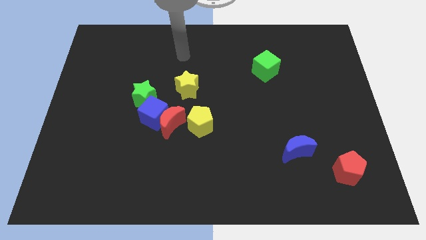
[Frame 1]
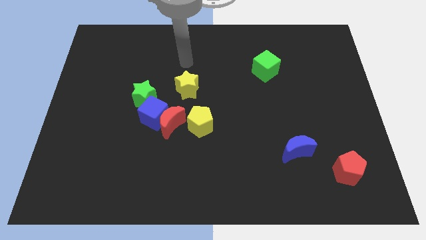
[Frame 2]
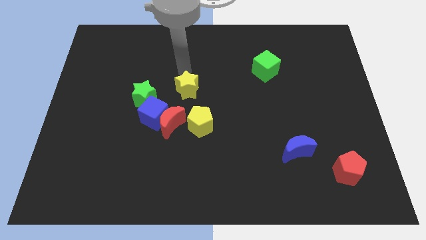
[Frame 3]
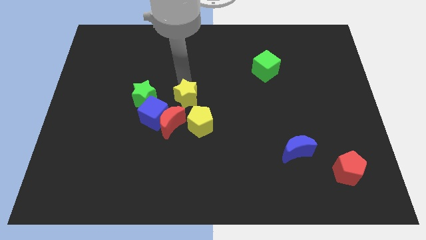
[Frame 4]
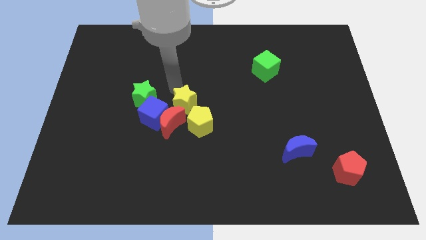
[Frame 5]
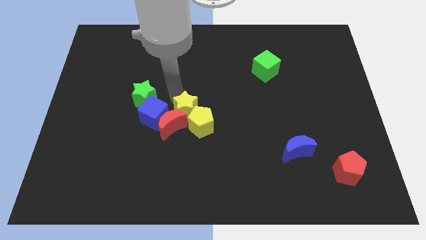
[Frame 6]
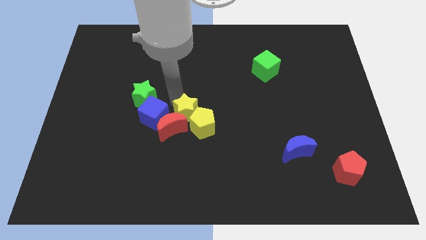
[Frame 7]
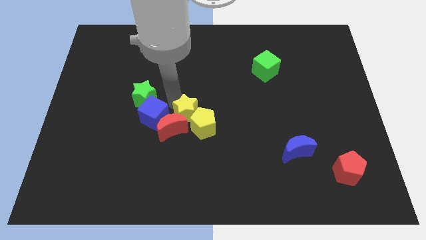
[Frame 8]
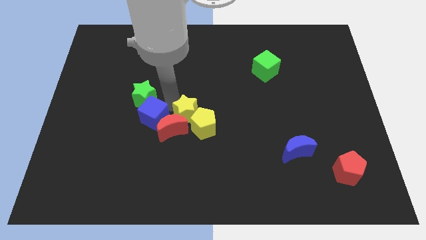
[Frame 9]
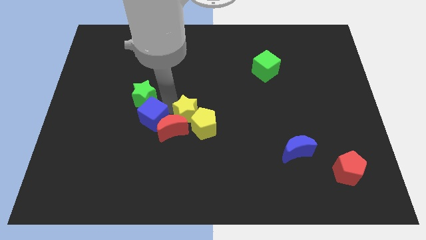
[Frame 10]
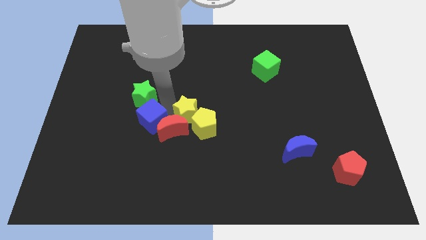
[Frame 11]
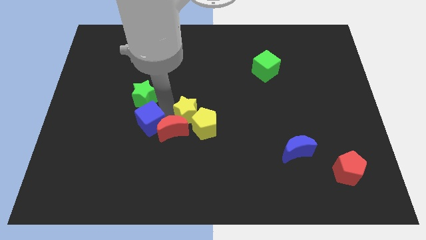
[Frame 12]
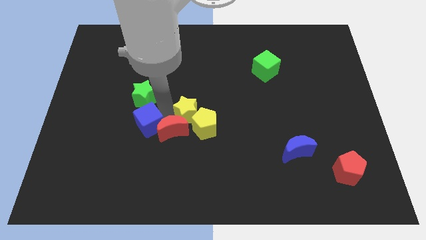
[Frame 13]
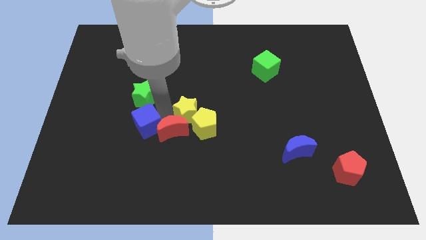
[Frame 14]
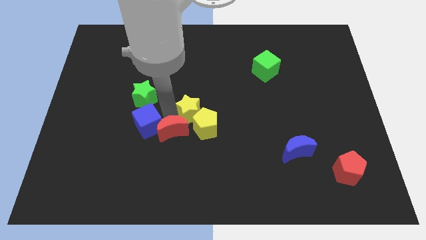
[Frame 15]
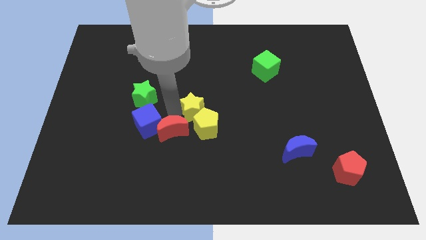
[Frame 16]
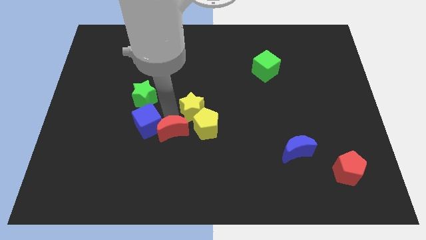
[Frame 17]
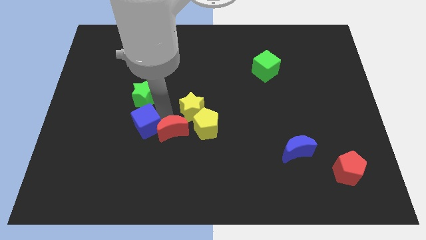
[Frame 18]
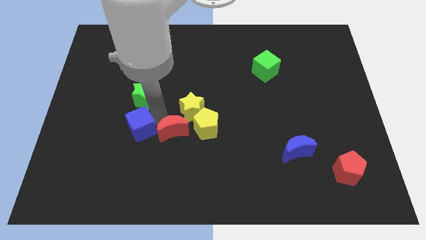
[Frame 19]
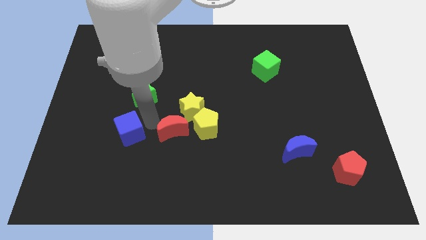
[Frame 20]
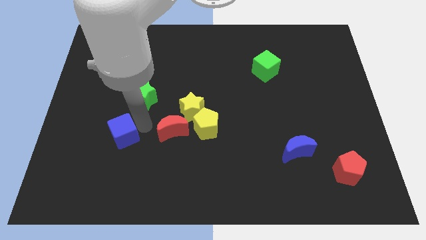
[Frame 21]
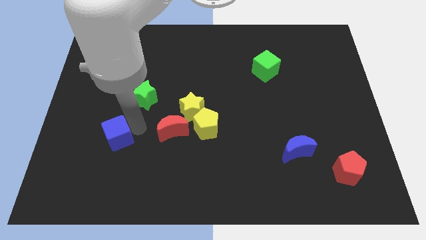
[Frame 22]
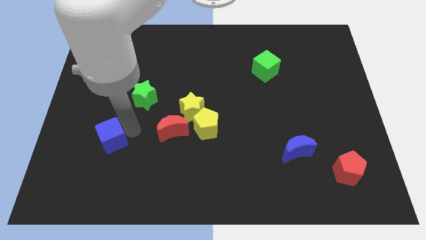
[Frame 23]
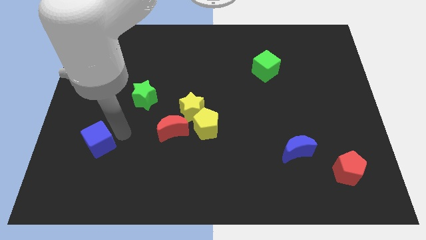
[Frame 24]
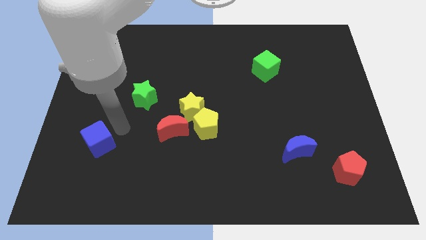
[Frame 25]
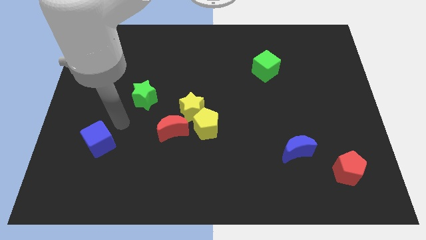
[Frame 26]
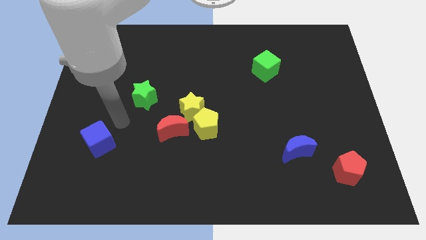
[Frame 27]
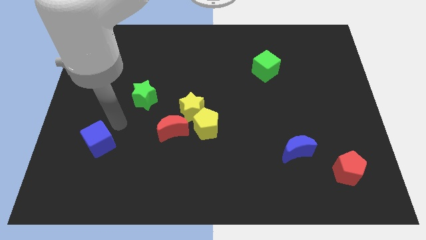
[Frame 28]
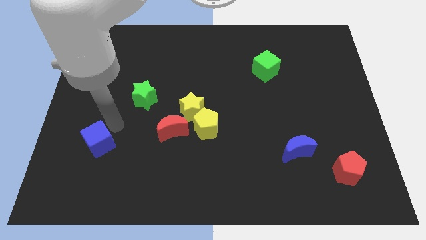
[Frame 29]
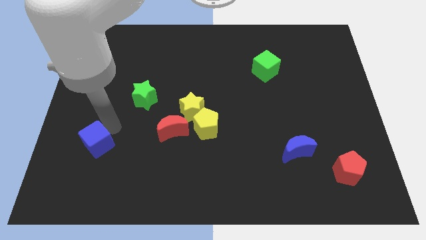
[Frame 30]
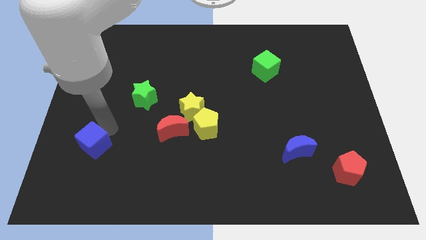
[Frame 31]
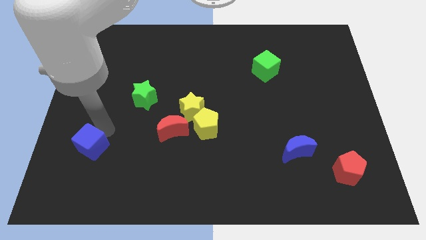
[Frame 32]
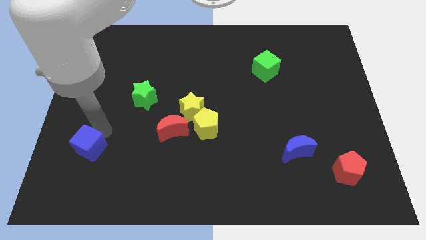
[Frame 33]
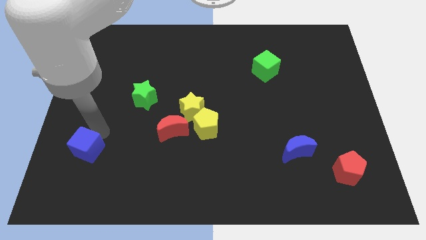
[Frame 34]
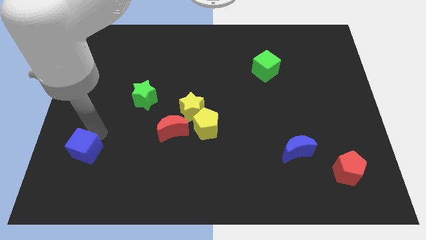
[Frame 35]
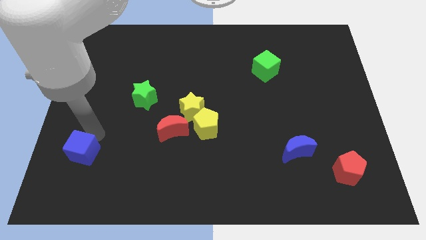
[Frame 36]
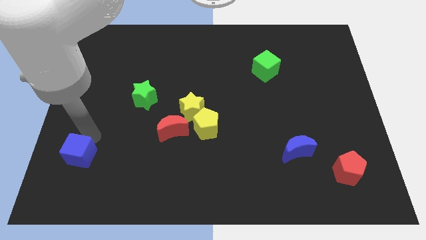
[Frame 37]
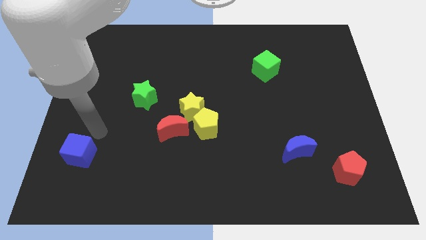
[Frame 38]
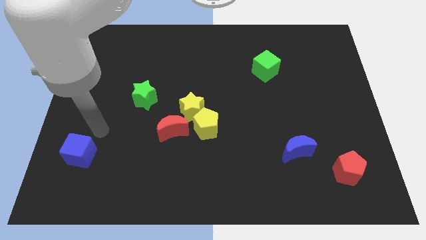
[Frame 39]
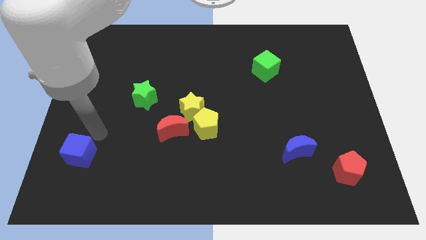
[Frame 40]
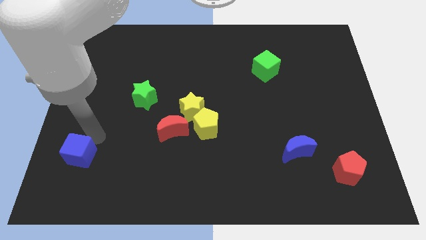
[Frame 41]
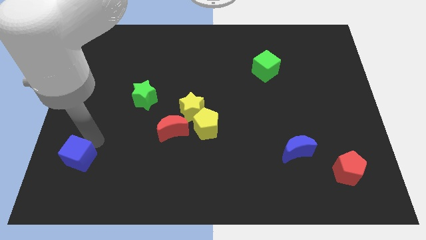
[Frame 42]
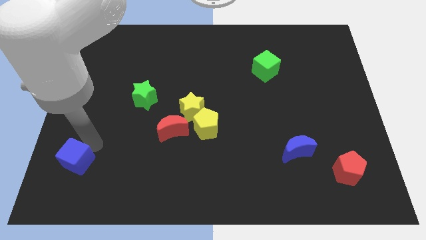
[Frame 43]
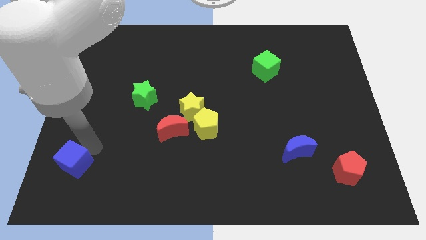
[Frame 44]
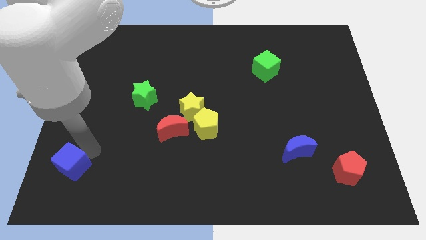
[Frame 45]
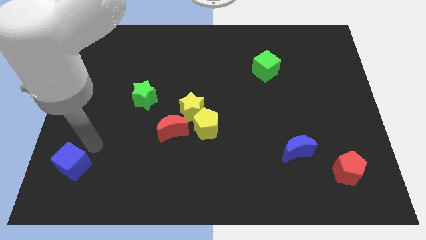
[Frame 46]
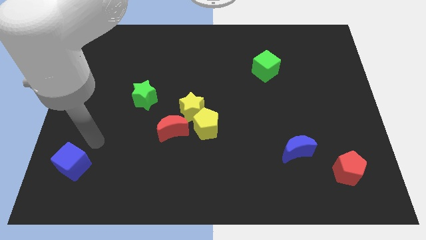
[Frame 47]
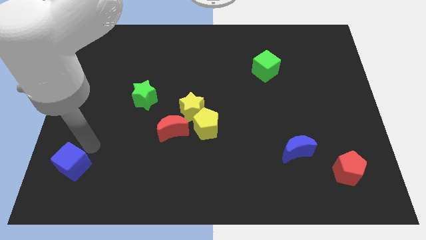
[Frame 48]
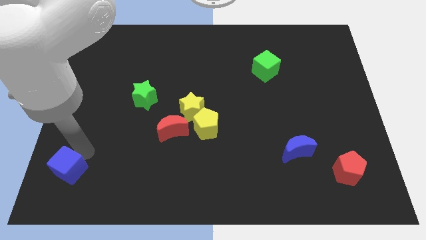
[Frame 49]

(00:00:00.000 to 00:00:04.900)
move the blue cube to the bottom left

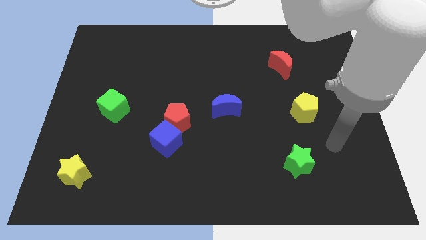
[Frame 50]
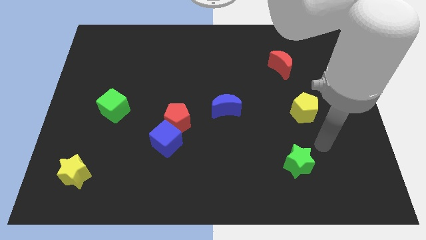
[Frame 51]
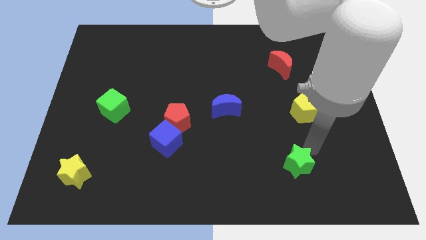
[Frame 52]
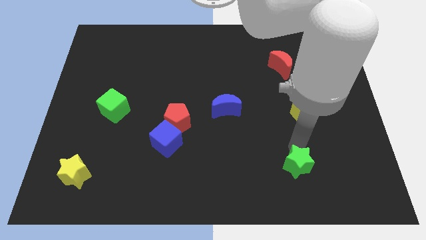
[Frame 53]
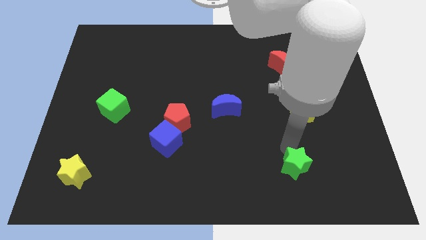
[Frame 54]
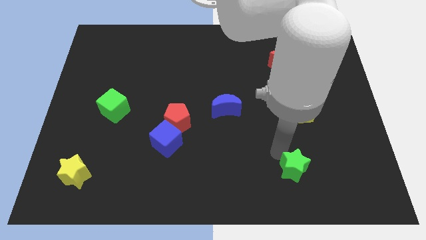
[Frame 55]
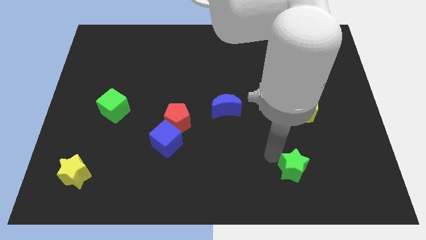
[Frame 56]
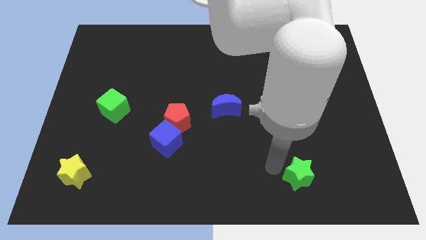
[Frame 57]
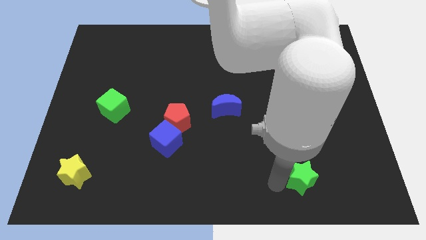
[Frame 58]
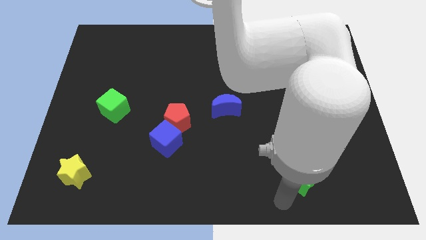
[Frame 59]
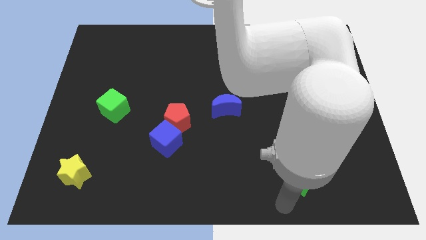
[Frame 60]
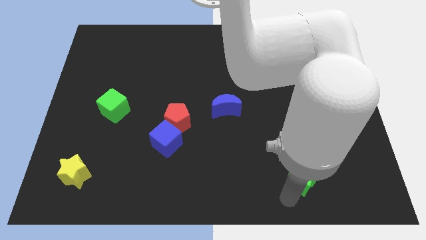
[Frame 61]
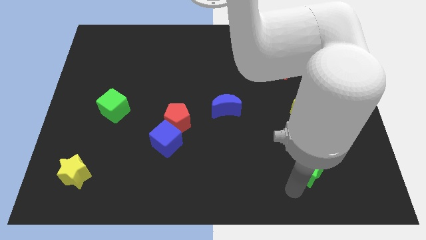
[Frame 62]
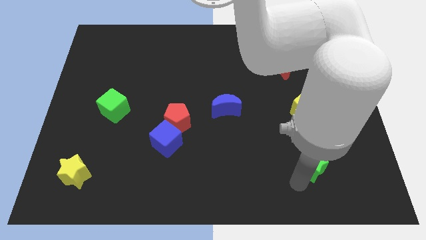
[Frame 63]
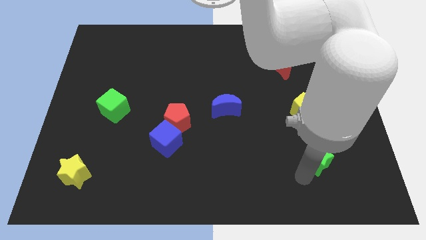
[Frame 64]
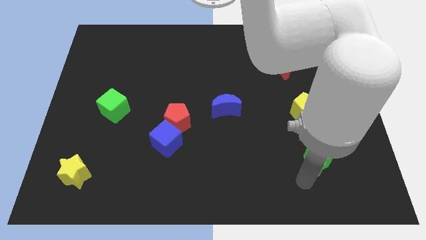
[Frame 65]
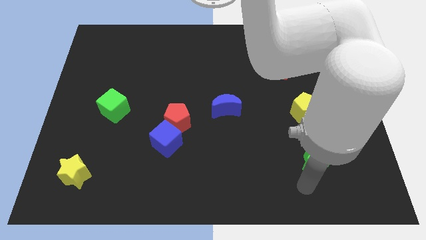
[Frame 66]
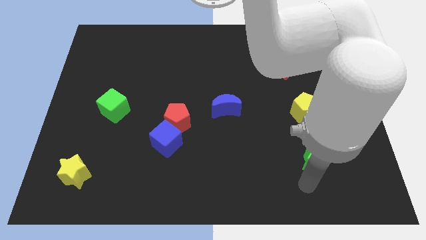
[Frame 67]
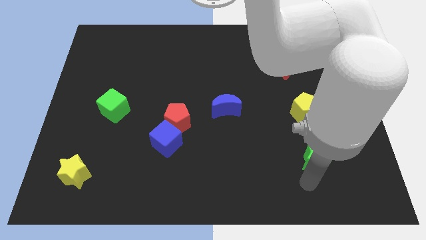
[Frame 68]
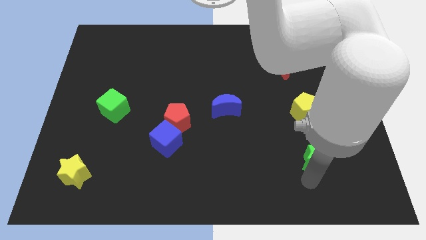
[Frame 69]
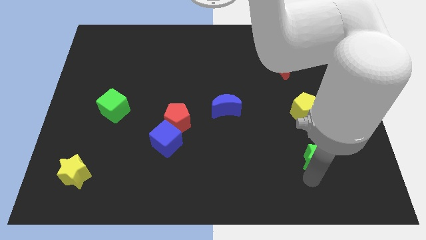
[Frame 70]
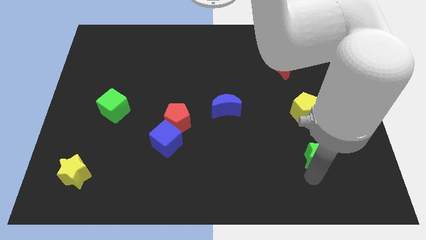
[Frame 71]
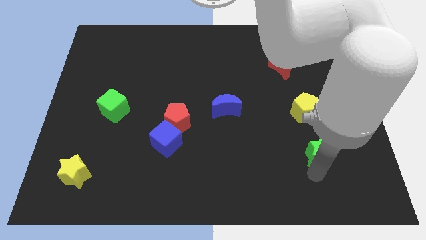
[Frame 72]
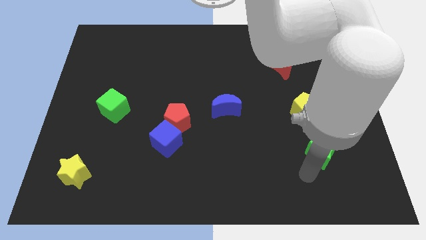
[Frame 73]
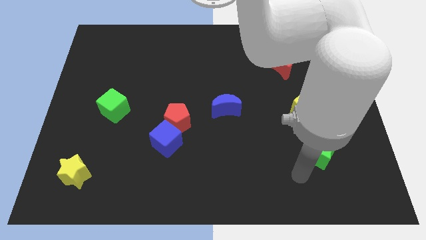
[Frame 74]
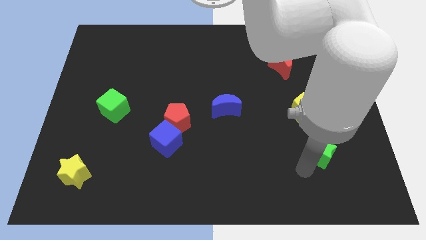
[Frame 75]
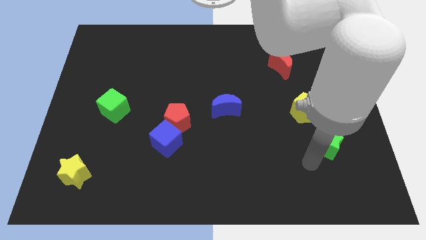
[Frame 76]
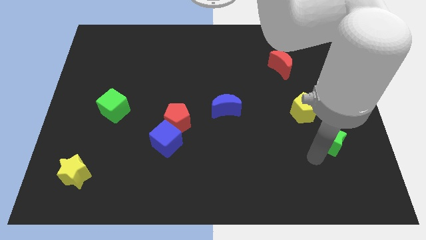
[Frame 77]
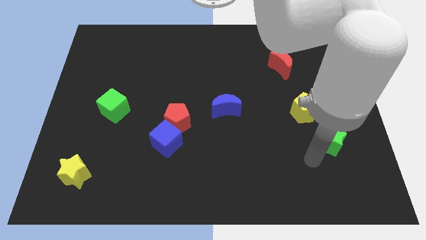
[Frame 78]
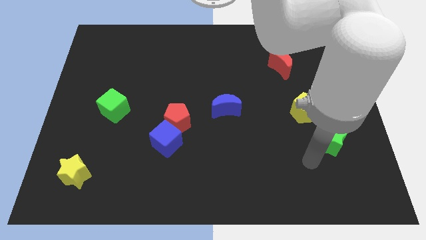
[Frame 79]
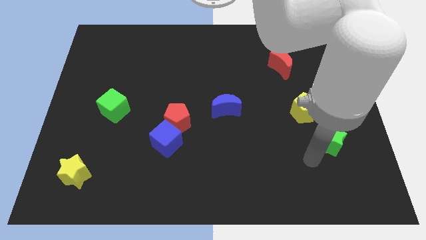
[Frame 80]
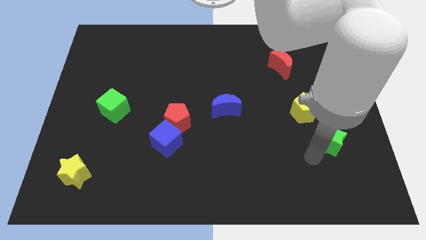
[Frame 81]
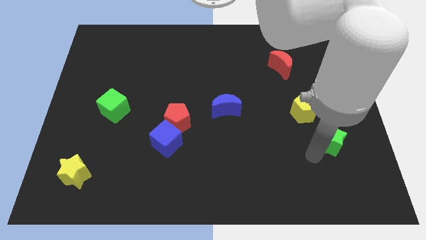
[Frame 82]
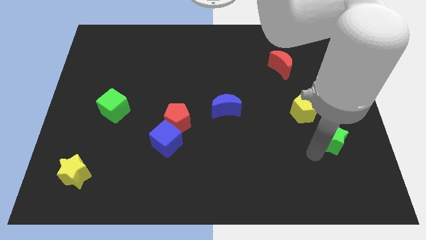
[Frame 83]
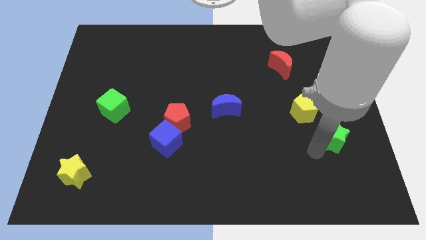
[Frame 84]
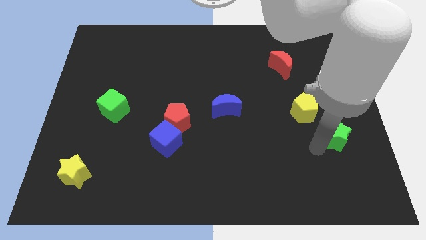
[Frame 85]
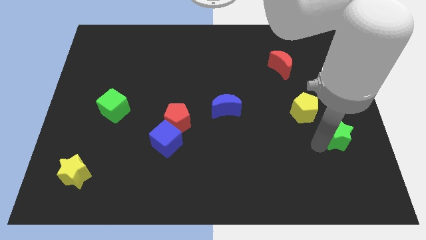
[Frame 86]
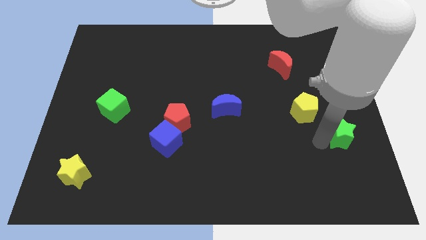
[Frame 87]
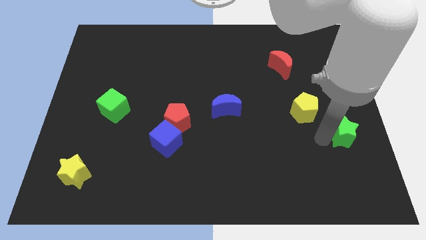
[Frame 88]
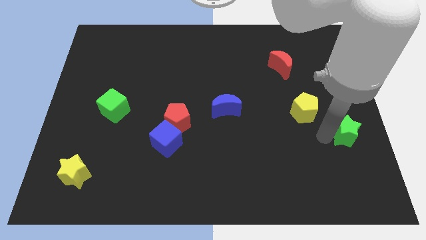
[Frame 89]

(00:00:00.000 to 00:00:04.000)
slide the green star to the right side of the board
